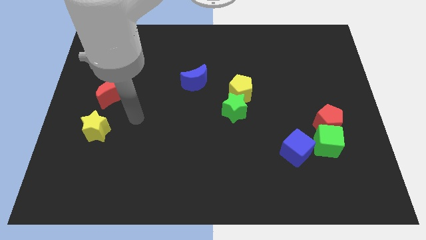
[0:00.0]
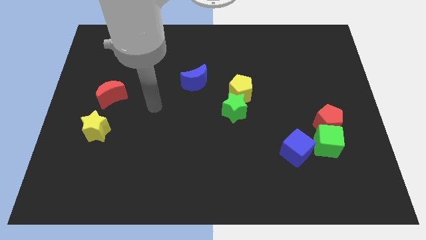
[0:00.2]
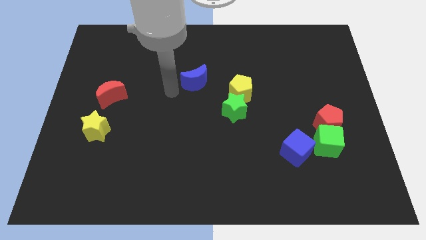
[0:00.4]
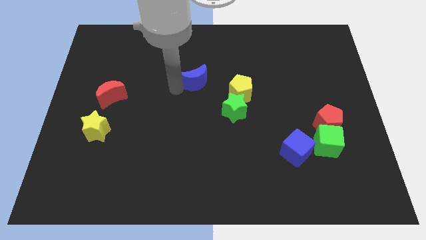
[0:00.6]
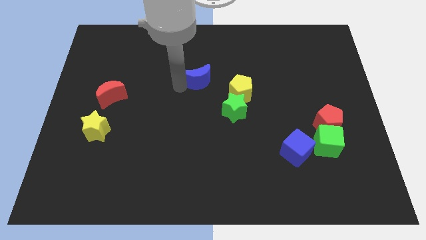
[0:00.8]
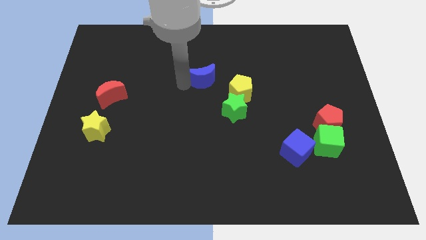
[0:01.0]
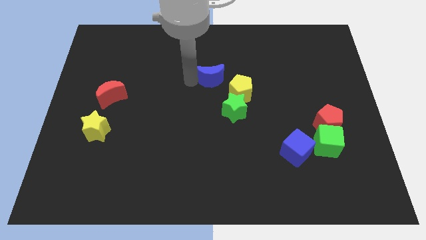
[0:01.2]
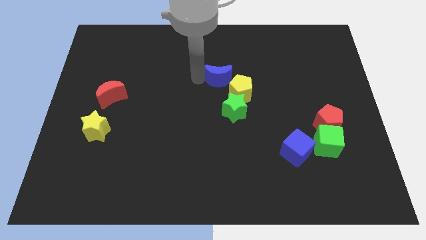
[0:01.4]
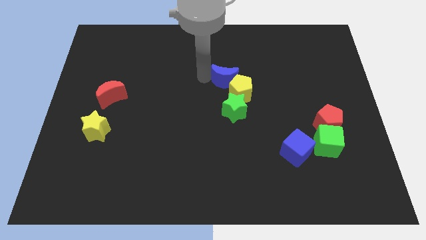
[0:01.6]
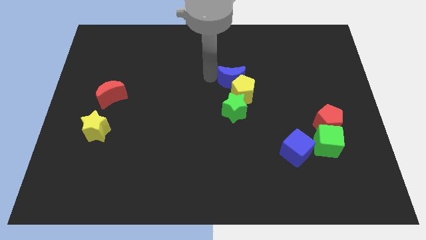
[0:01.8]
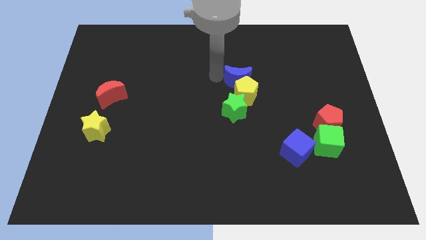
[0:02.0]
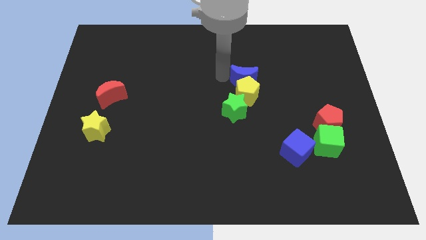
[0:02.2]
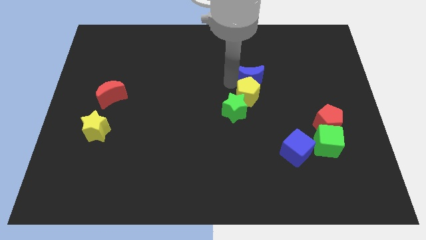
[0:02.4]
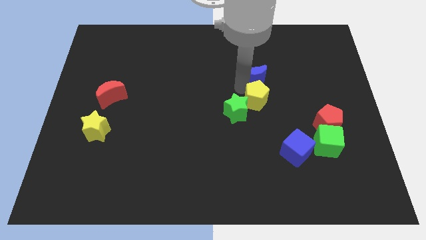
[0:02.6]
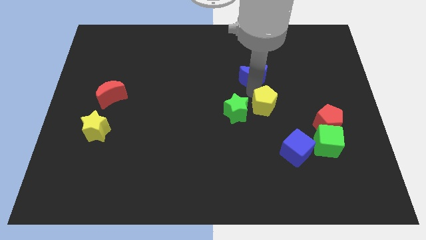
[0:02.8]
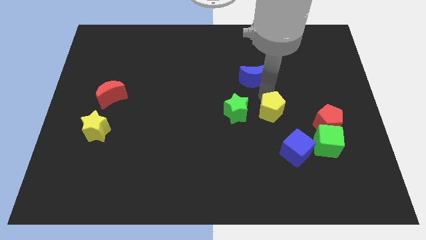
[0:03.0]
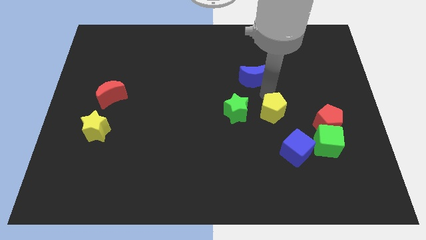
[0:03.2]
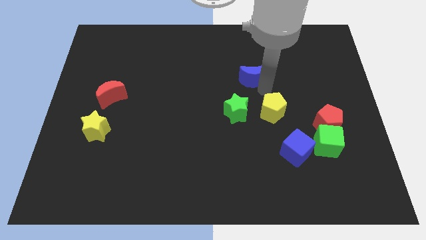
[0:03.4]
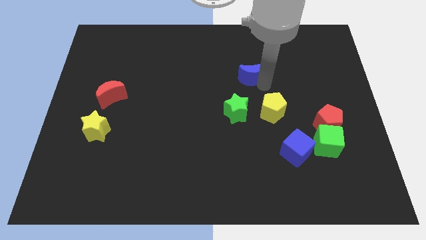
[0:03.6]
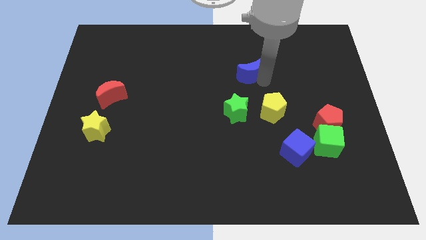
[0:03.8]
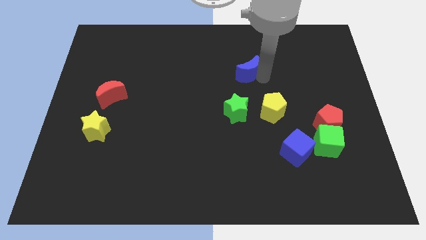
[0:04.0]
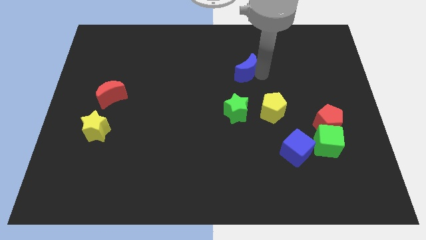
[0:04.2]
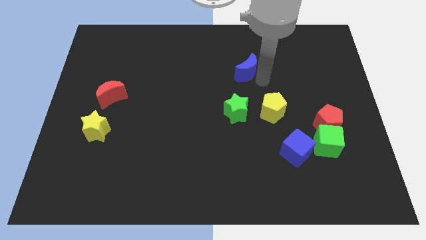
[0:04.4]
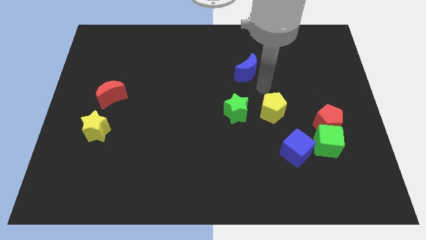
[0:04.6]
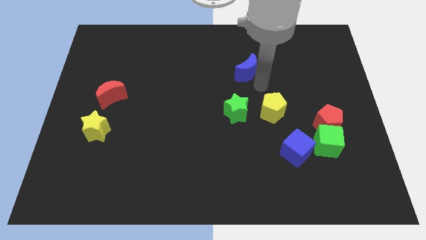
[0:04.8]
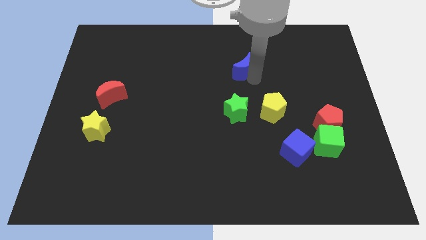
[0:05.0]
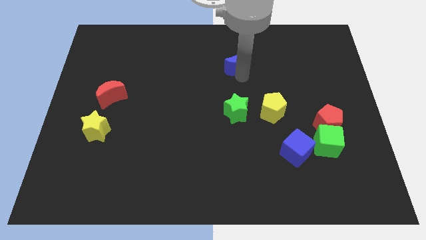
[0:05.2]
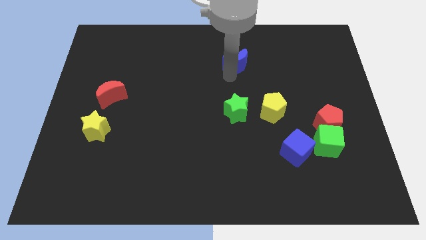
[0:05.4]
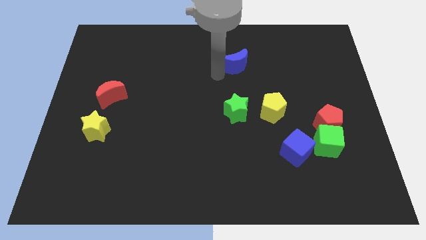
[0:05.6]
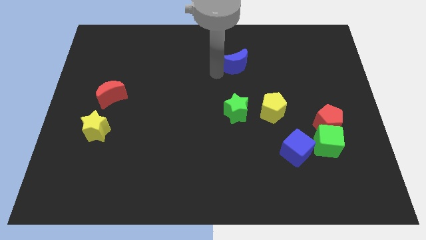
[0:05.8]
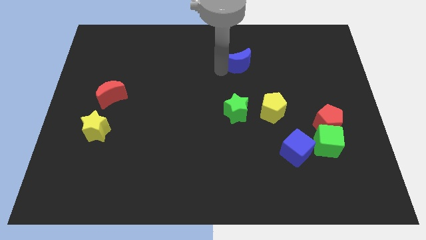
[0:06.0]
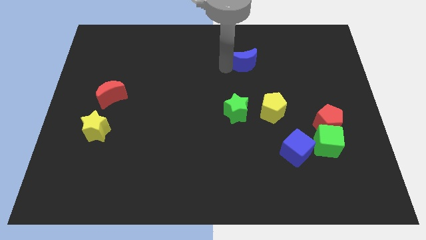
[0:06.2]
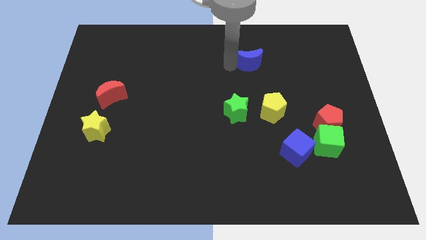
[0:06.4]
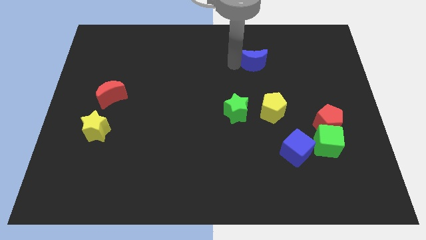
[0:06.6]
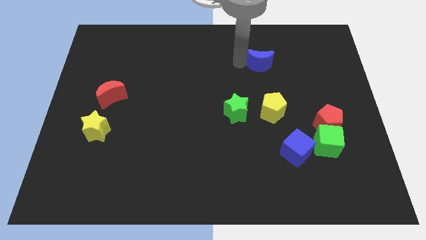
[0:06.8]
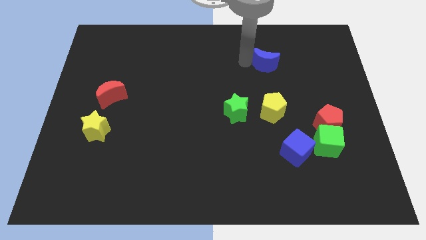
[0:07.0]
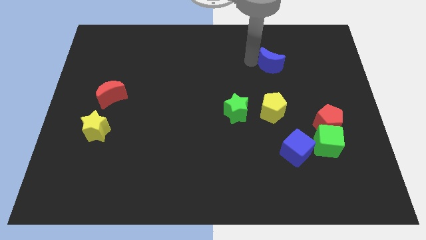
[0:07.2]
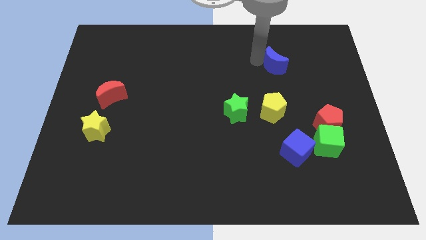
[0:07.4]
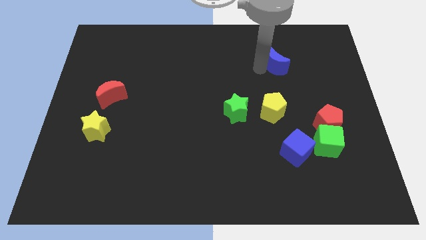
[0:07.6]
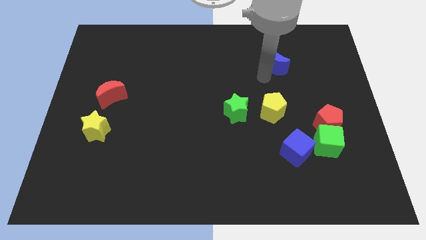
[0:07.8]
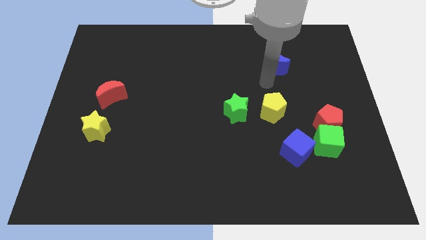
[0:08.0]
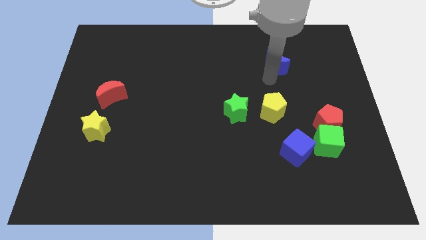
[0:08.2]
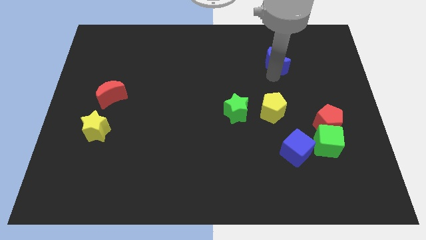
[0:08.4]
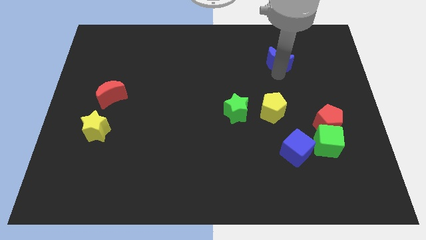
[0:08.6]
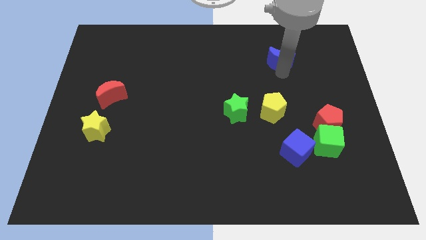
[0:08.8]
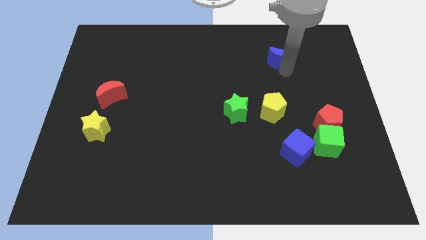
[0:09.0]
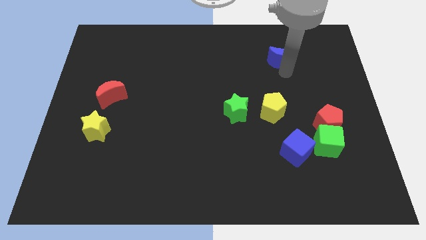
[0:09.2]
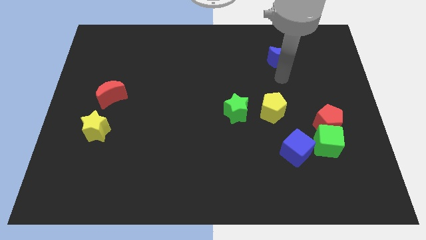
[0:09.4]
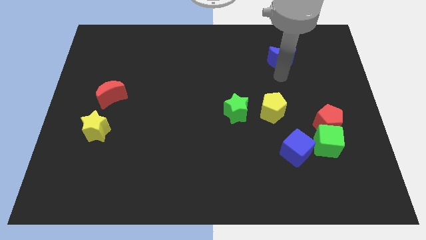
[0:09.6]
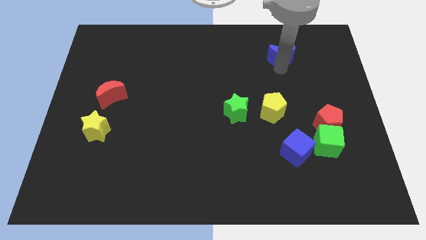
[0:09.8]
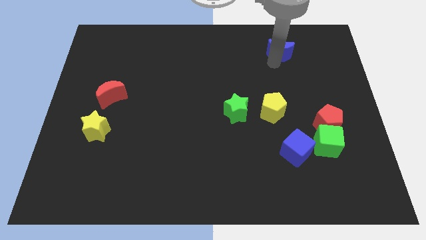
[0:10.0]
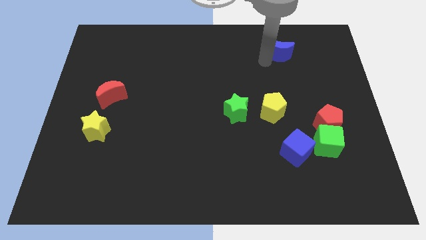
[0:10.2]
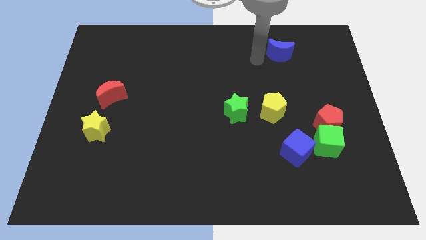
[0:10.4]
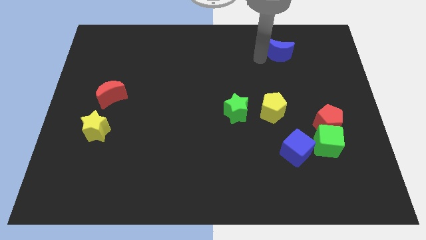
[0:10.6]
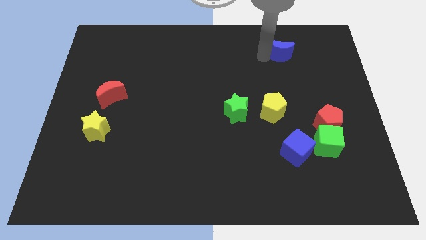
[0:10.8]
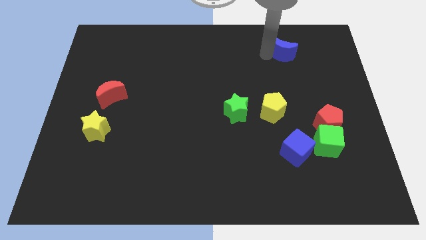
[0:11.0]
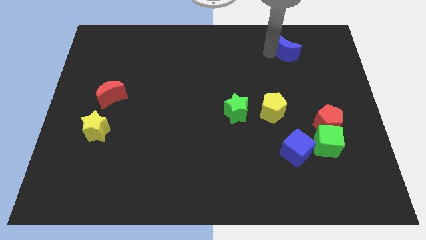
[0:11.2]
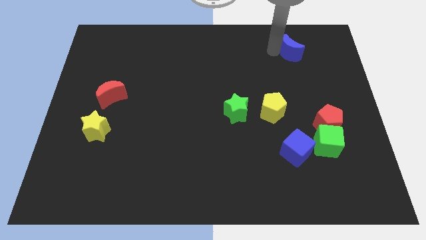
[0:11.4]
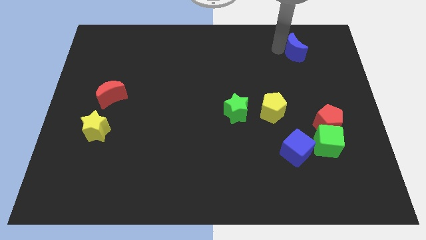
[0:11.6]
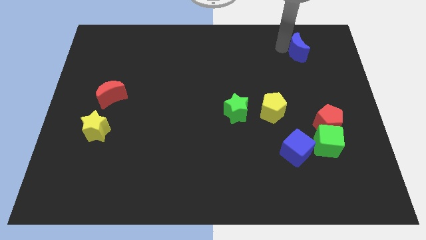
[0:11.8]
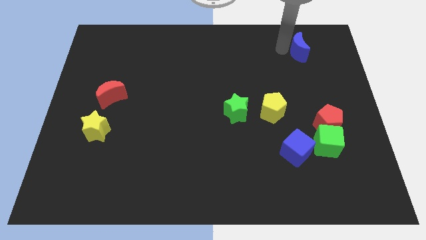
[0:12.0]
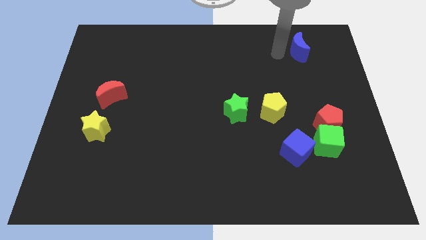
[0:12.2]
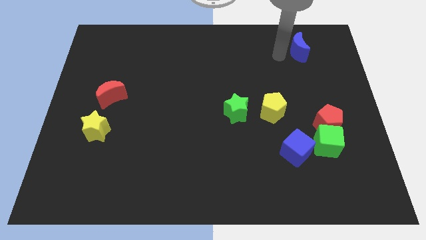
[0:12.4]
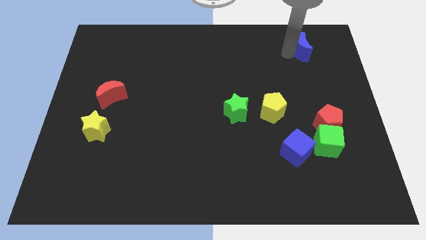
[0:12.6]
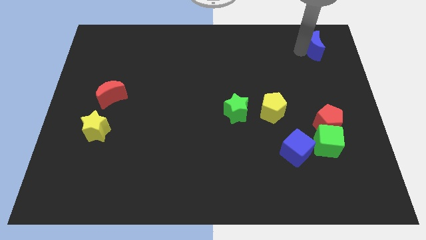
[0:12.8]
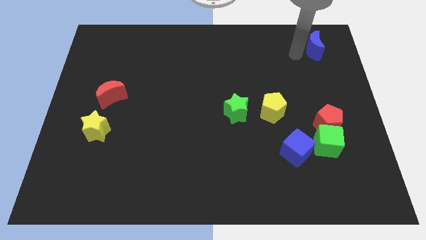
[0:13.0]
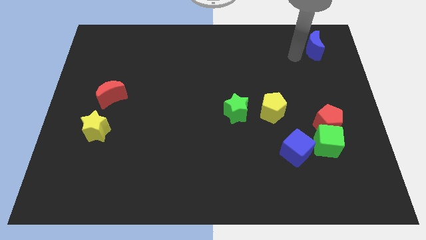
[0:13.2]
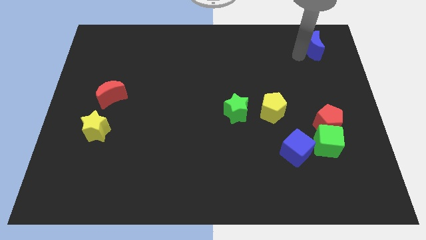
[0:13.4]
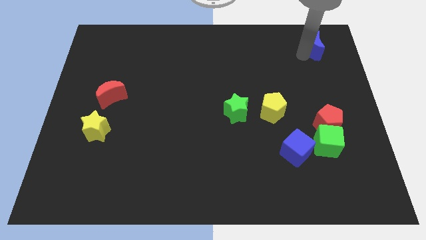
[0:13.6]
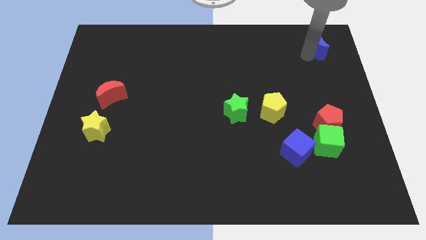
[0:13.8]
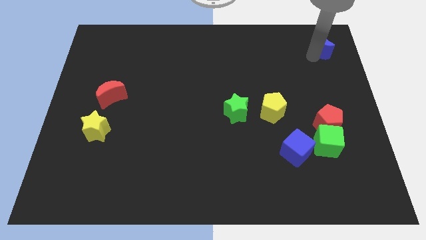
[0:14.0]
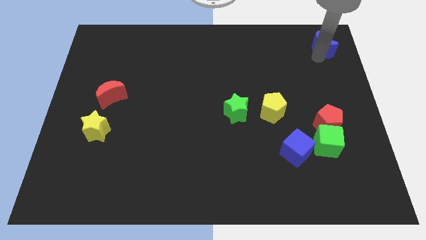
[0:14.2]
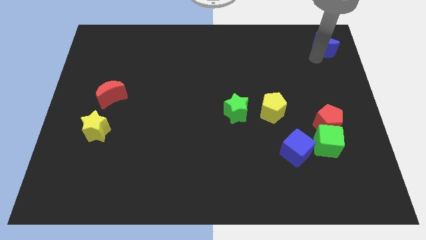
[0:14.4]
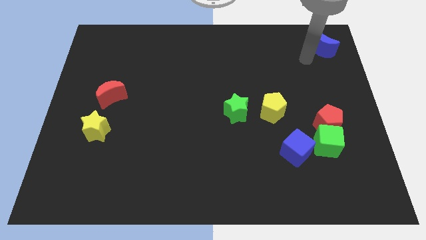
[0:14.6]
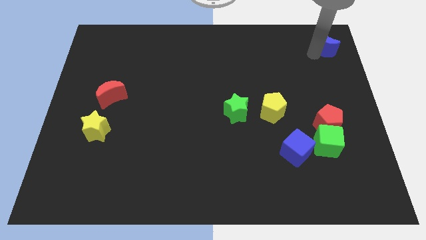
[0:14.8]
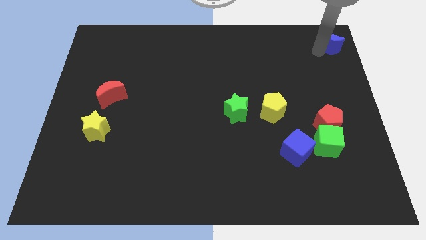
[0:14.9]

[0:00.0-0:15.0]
push the blue moon to the upper right corner
